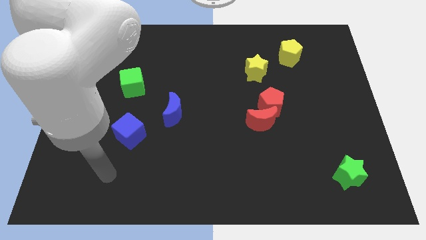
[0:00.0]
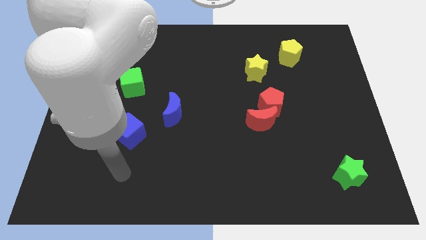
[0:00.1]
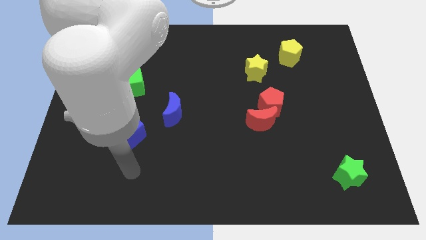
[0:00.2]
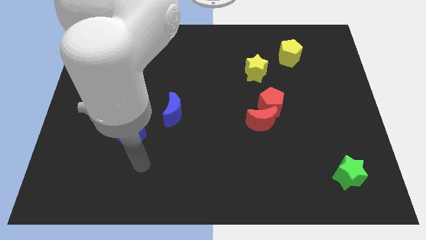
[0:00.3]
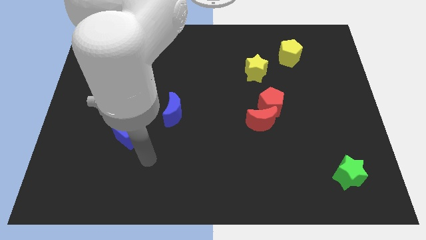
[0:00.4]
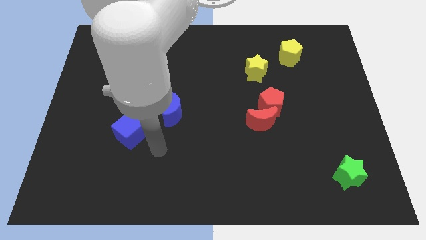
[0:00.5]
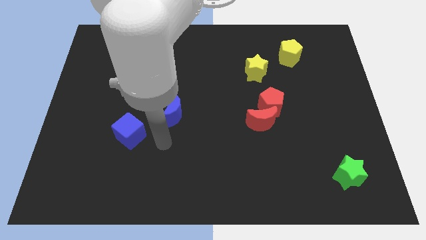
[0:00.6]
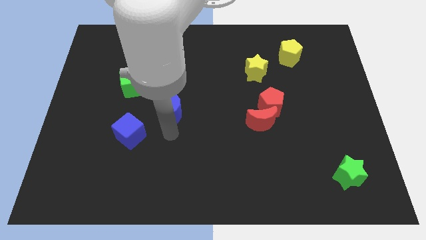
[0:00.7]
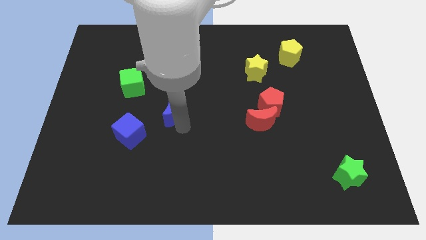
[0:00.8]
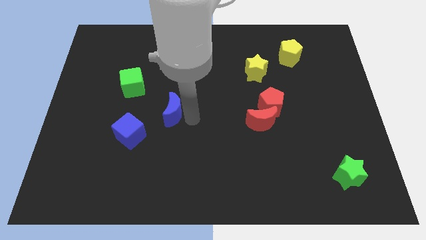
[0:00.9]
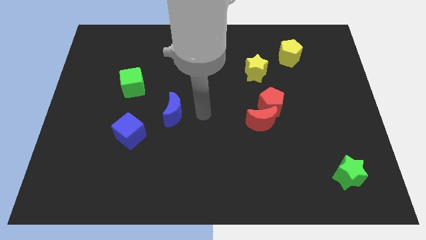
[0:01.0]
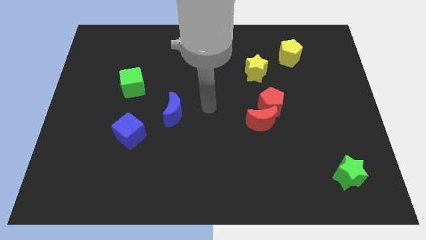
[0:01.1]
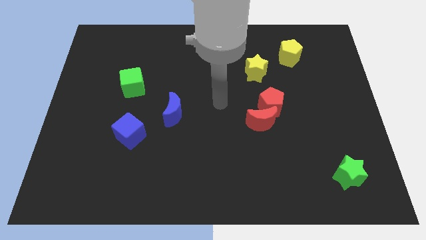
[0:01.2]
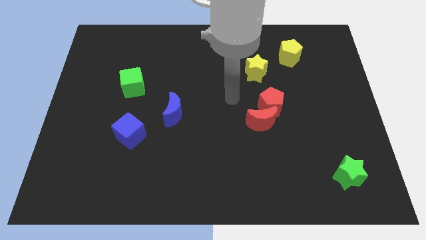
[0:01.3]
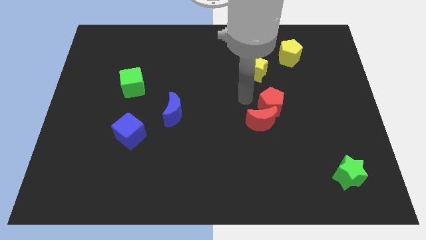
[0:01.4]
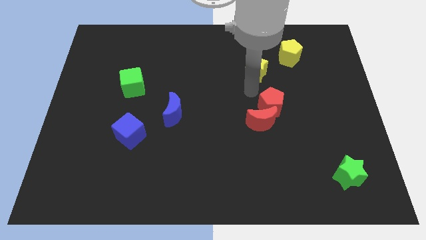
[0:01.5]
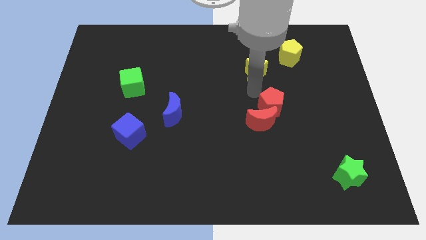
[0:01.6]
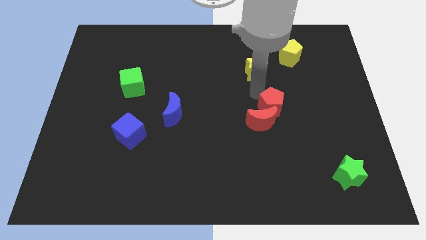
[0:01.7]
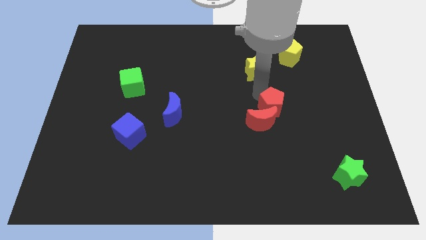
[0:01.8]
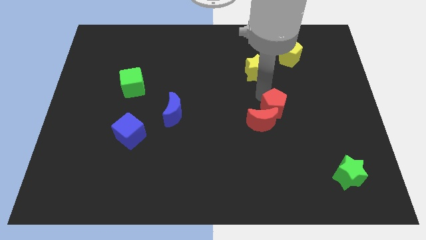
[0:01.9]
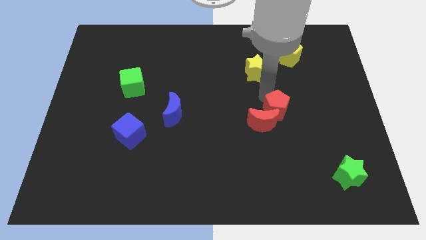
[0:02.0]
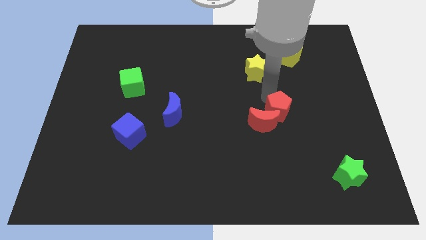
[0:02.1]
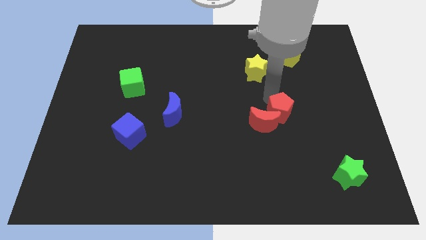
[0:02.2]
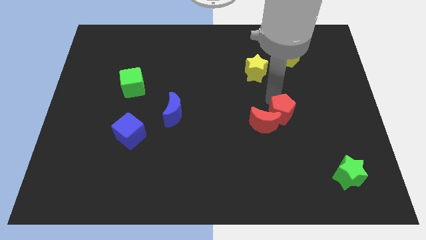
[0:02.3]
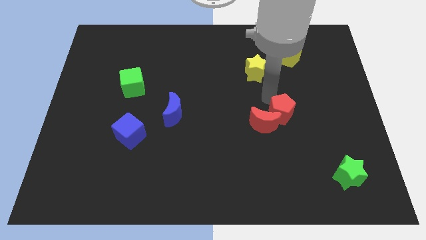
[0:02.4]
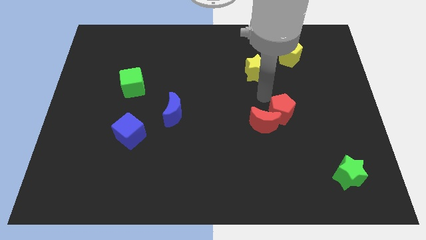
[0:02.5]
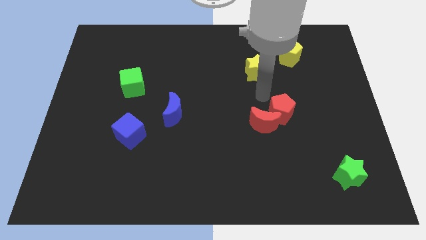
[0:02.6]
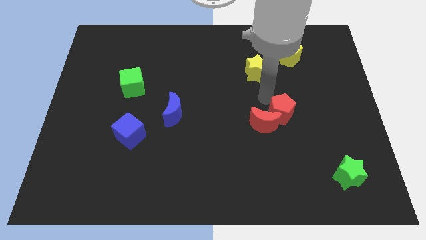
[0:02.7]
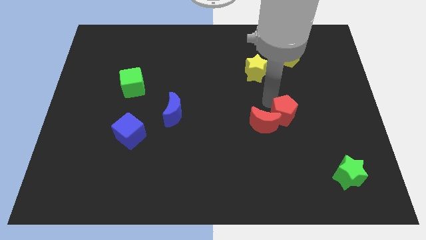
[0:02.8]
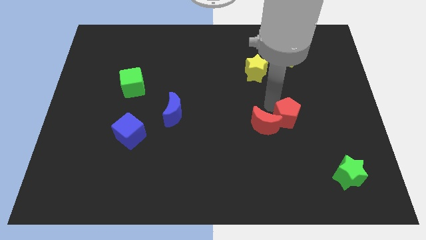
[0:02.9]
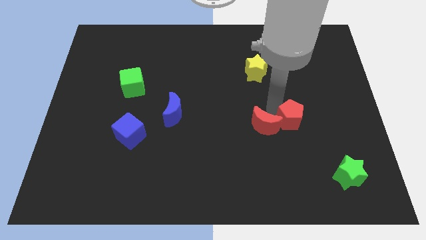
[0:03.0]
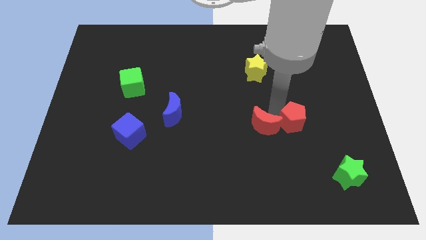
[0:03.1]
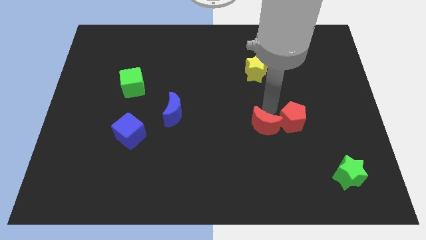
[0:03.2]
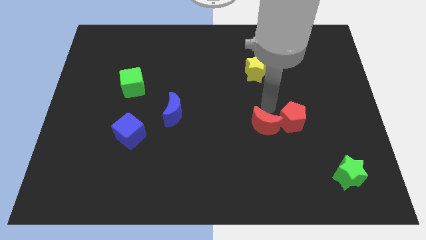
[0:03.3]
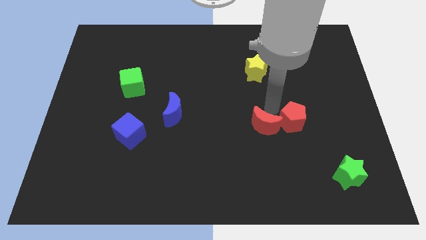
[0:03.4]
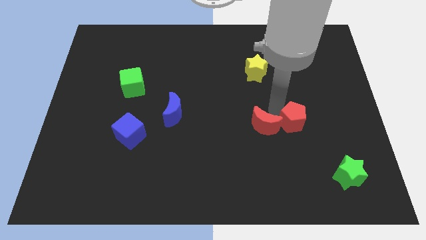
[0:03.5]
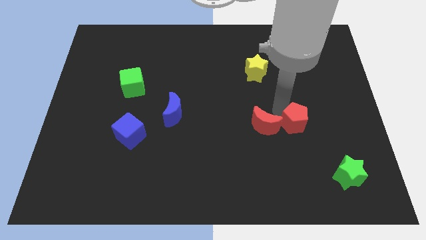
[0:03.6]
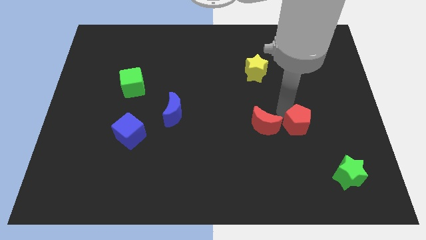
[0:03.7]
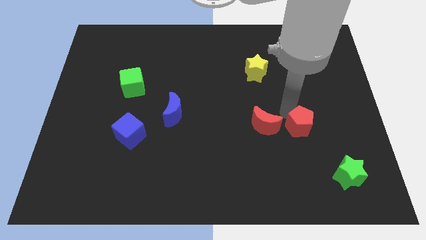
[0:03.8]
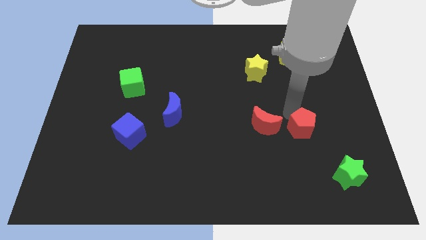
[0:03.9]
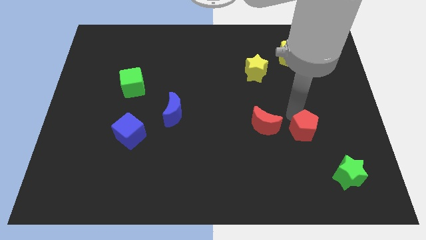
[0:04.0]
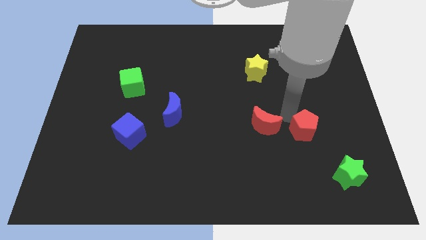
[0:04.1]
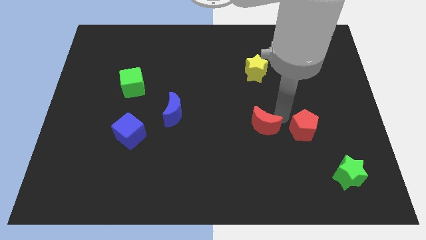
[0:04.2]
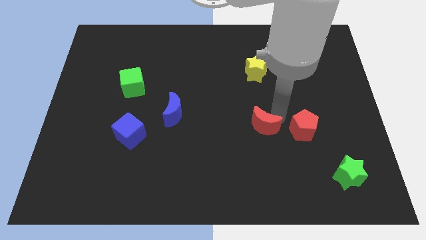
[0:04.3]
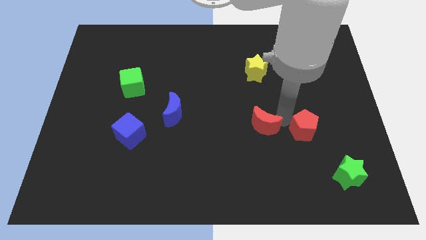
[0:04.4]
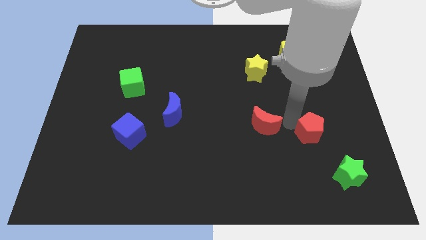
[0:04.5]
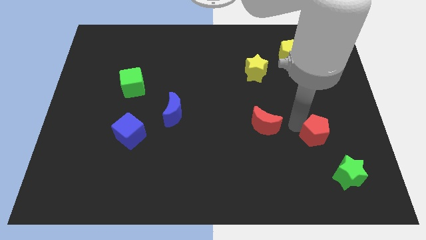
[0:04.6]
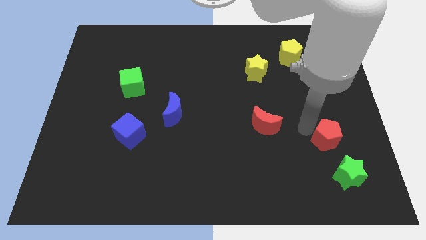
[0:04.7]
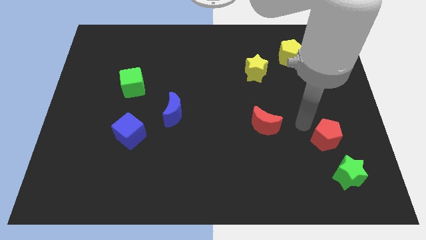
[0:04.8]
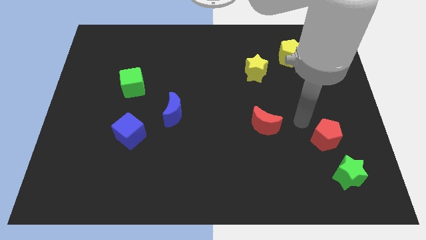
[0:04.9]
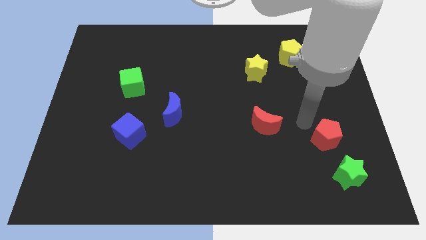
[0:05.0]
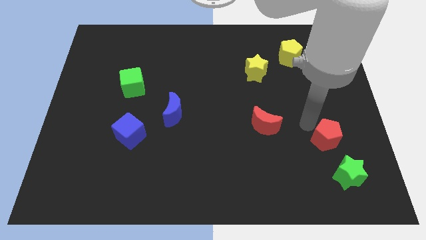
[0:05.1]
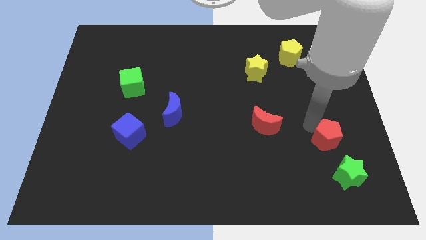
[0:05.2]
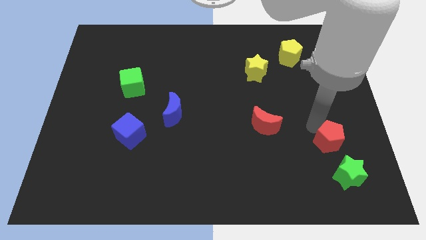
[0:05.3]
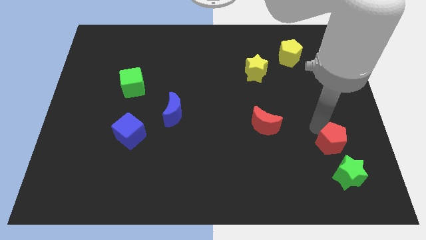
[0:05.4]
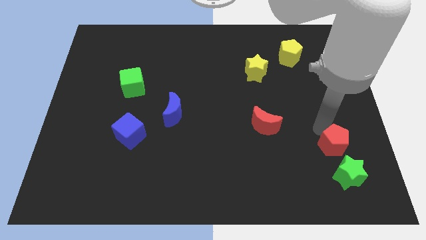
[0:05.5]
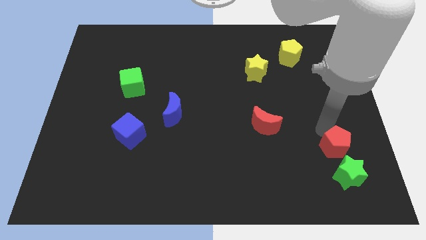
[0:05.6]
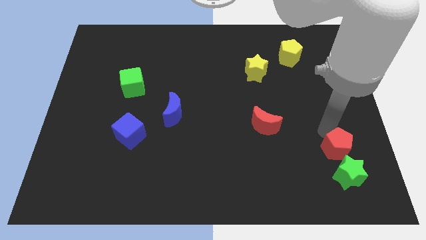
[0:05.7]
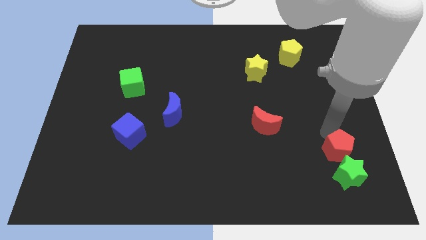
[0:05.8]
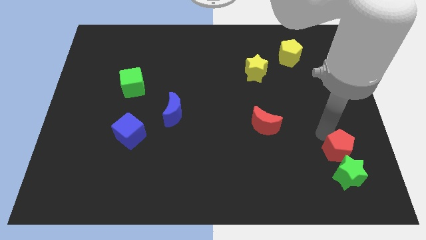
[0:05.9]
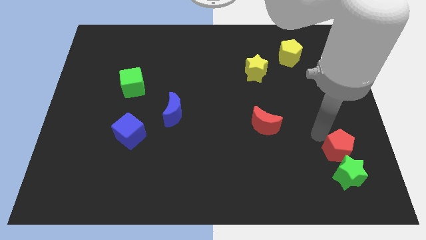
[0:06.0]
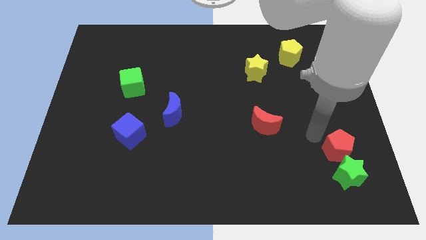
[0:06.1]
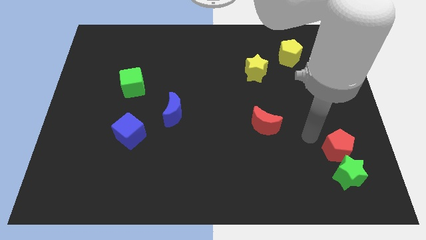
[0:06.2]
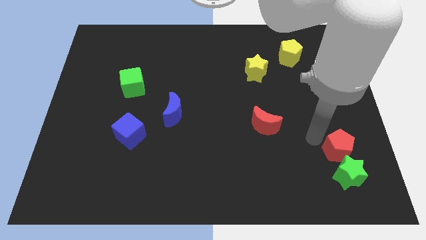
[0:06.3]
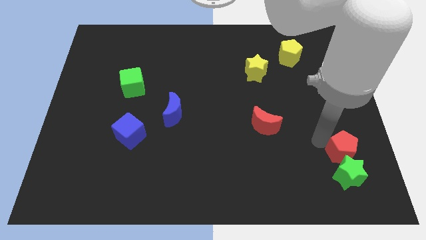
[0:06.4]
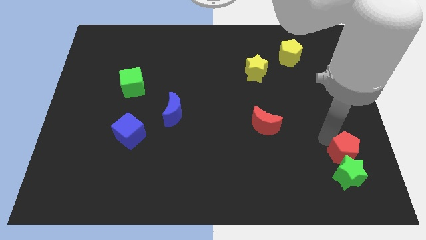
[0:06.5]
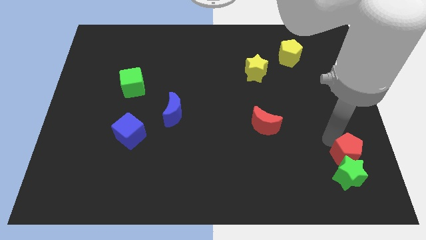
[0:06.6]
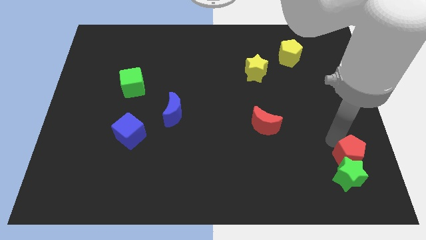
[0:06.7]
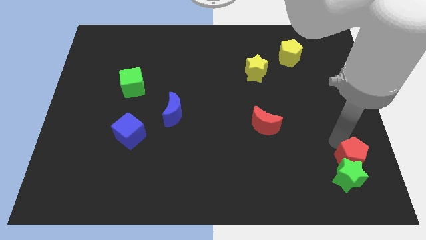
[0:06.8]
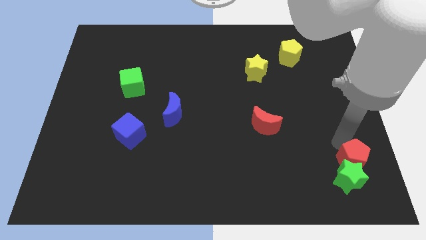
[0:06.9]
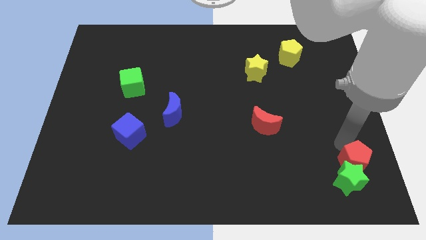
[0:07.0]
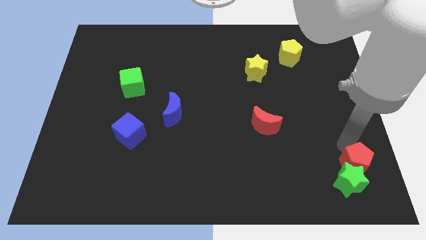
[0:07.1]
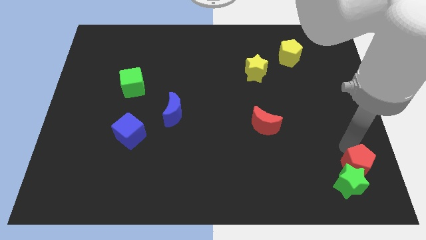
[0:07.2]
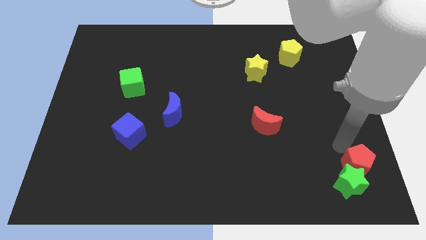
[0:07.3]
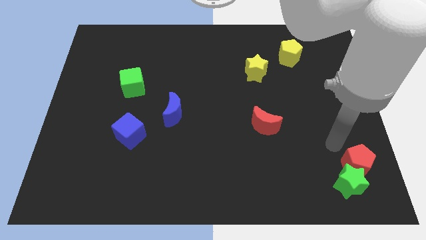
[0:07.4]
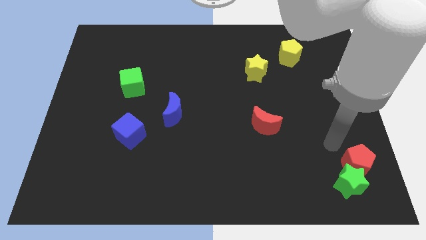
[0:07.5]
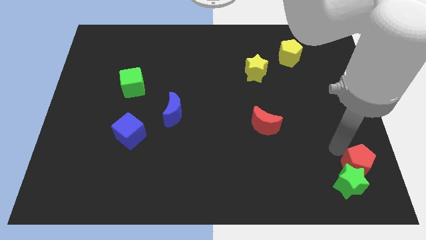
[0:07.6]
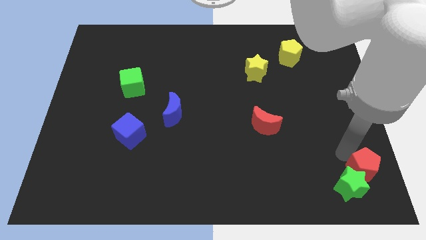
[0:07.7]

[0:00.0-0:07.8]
move the red pentagon to the bottom right
